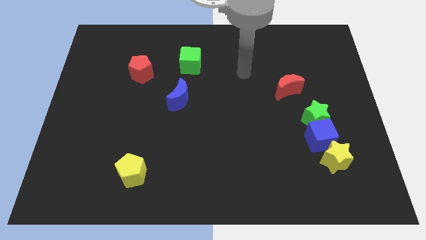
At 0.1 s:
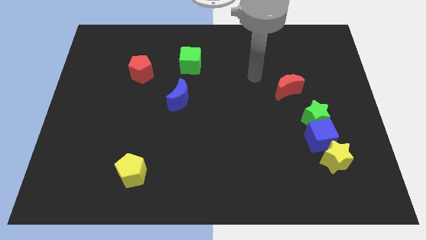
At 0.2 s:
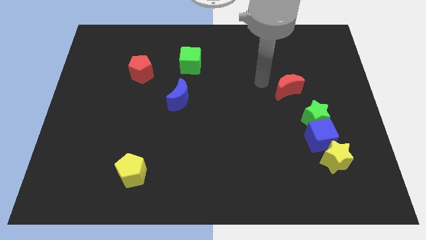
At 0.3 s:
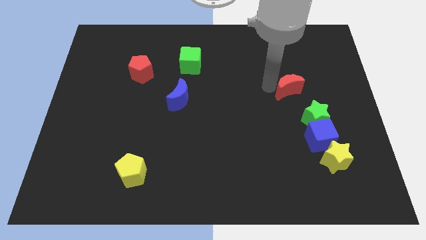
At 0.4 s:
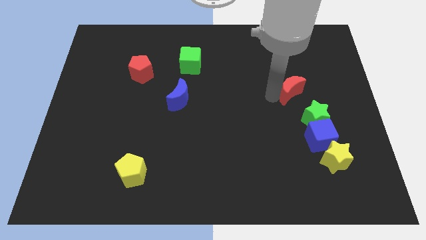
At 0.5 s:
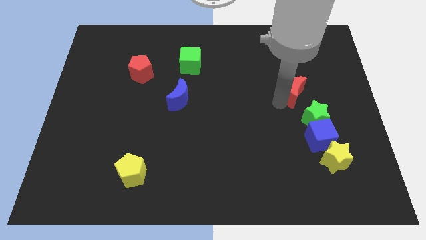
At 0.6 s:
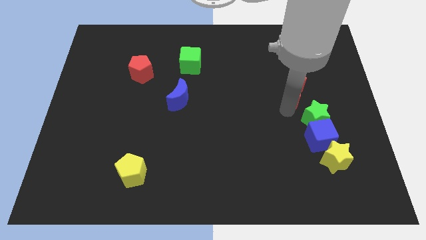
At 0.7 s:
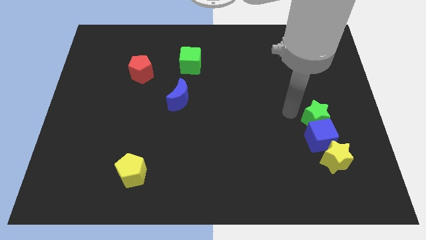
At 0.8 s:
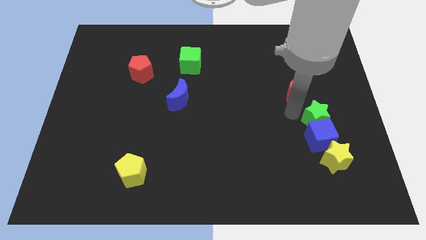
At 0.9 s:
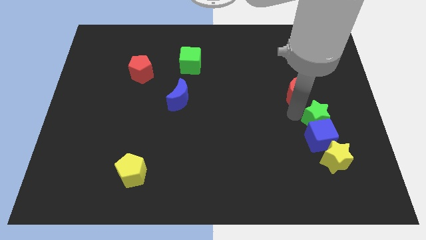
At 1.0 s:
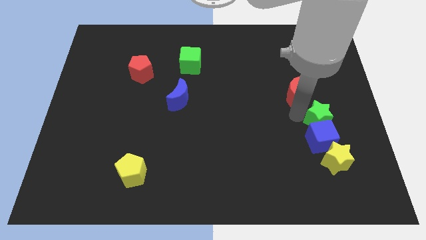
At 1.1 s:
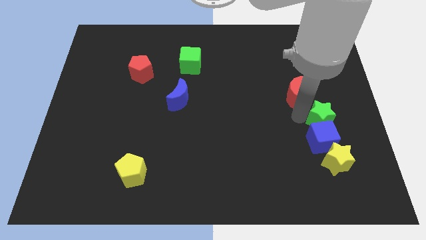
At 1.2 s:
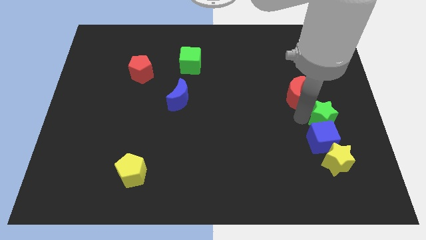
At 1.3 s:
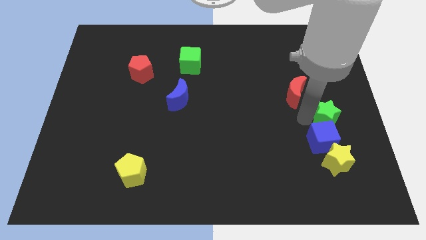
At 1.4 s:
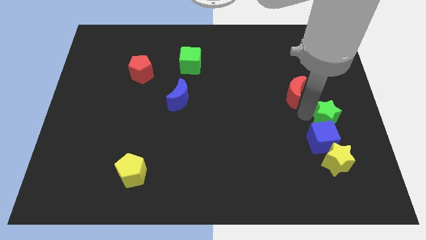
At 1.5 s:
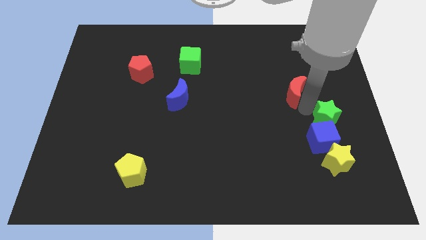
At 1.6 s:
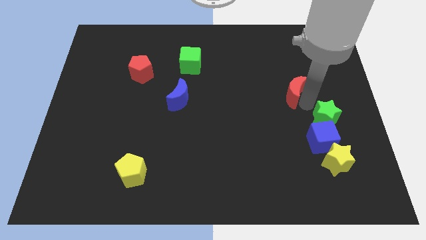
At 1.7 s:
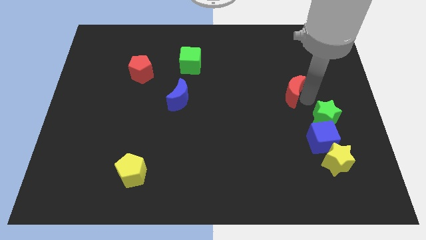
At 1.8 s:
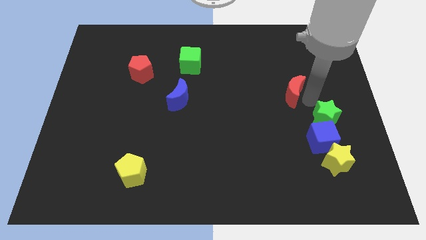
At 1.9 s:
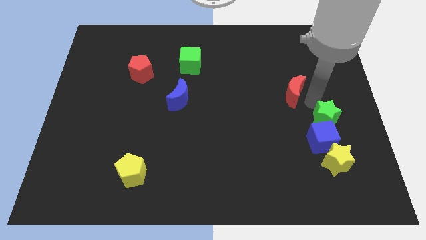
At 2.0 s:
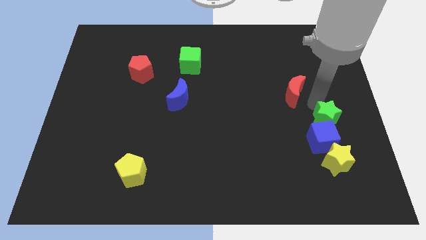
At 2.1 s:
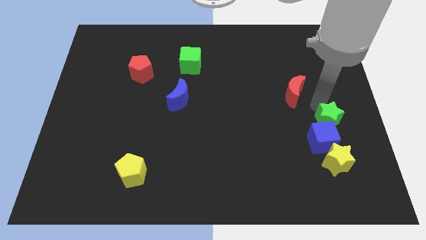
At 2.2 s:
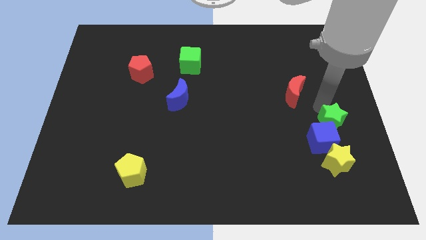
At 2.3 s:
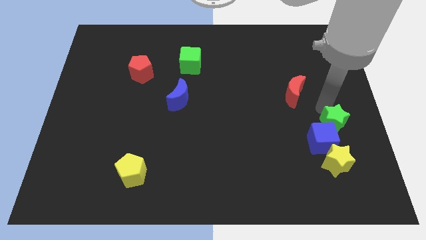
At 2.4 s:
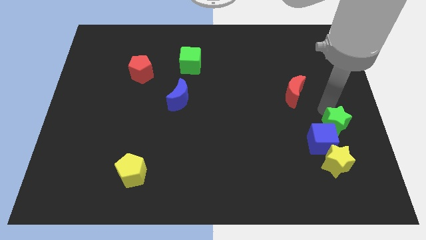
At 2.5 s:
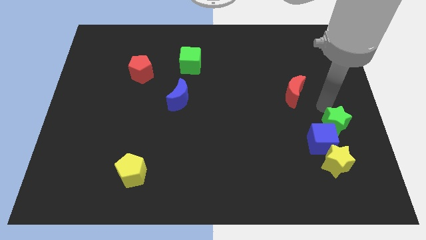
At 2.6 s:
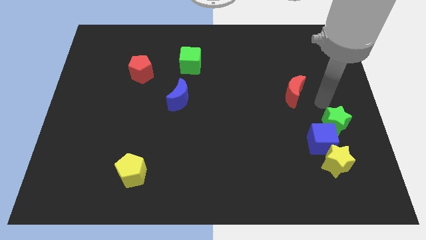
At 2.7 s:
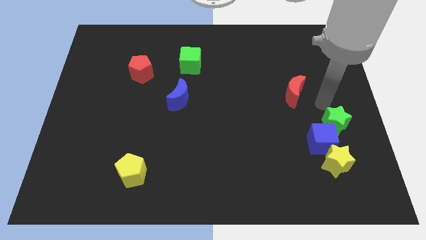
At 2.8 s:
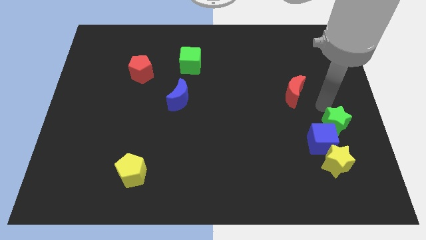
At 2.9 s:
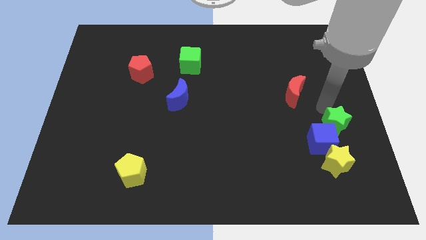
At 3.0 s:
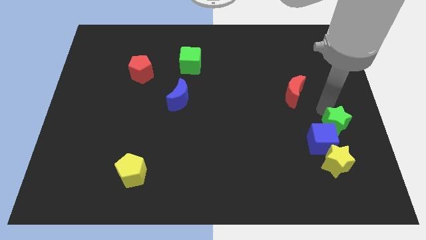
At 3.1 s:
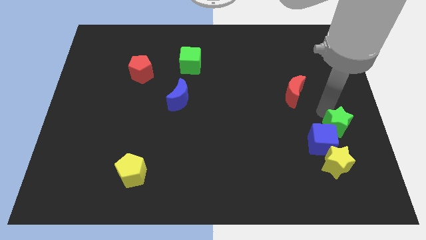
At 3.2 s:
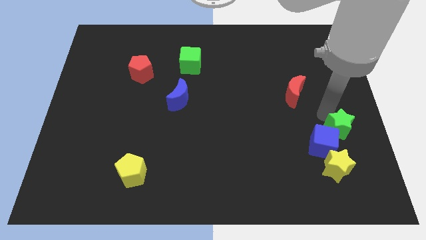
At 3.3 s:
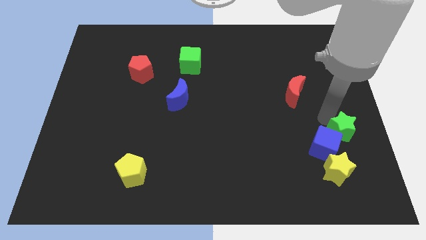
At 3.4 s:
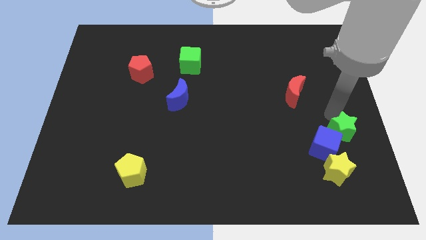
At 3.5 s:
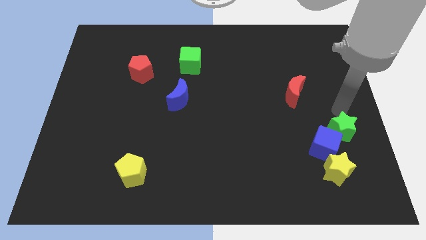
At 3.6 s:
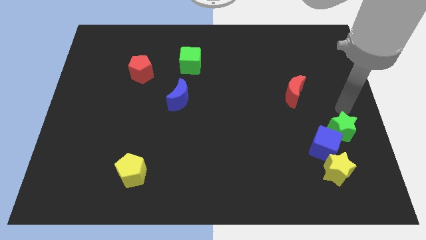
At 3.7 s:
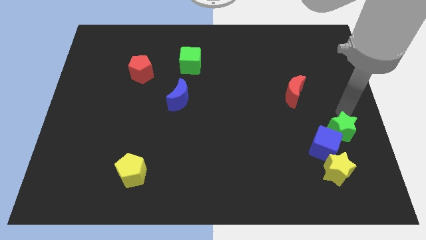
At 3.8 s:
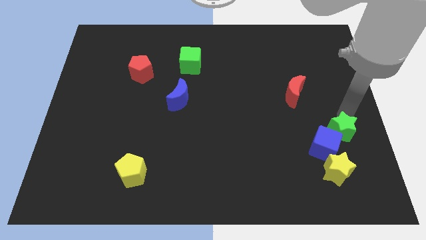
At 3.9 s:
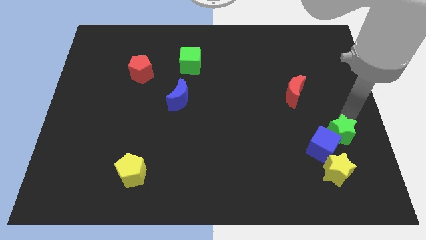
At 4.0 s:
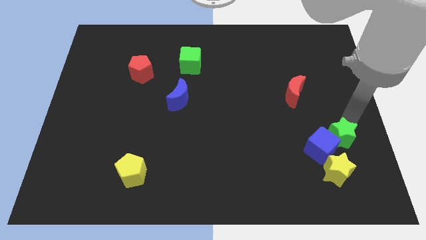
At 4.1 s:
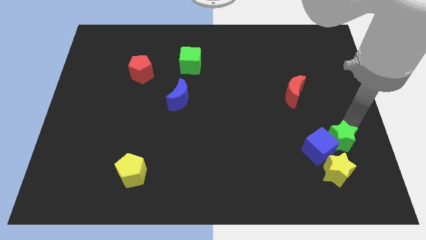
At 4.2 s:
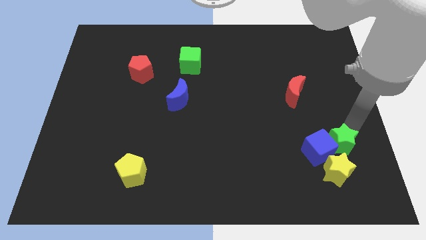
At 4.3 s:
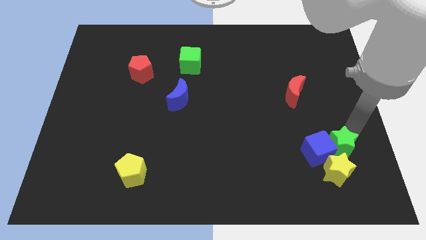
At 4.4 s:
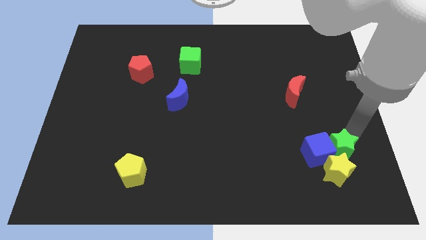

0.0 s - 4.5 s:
slide the green star close to the yellow star

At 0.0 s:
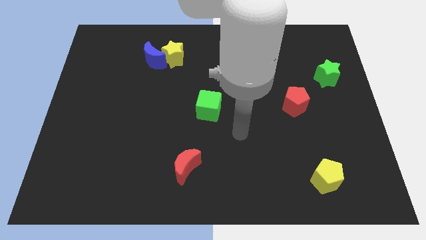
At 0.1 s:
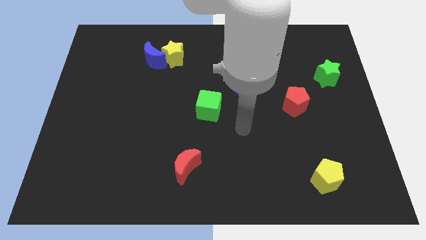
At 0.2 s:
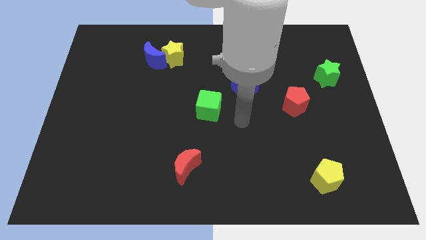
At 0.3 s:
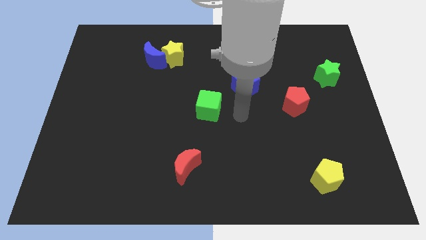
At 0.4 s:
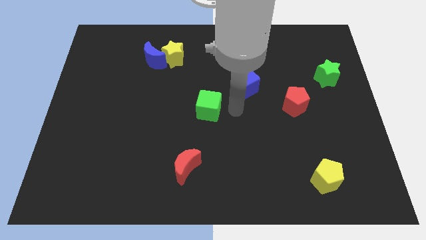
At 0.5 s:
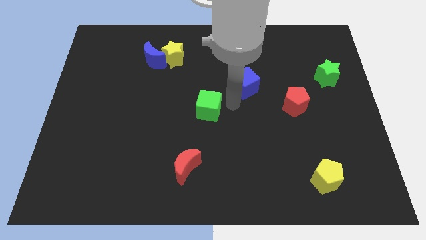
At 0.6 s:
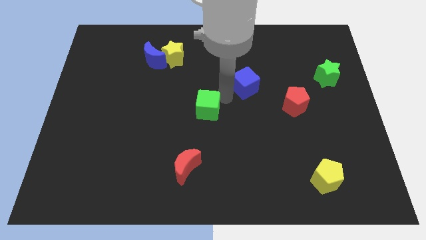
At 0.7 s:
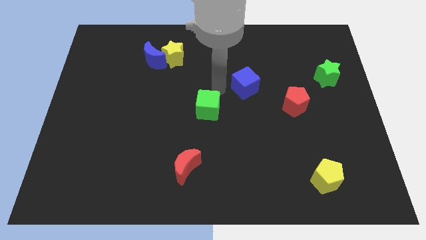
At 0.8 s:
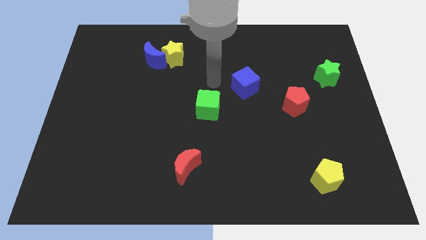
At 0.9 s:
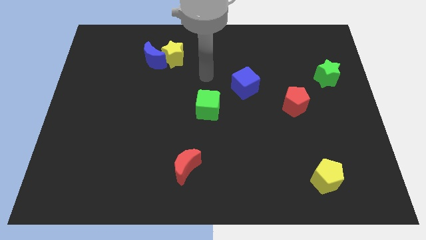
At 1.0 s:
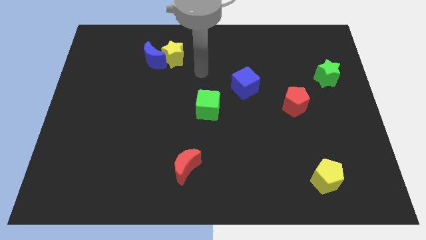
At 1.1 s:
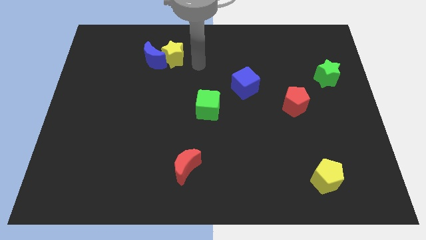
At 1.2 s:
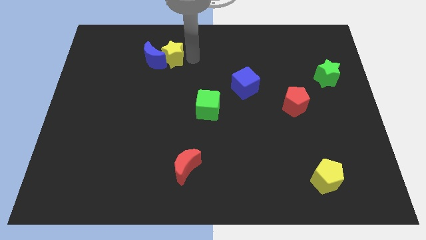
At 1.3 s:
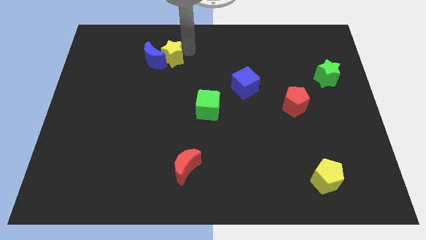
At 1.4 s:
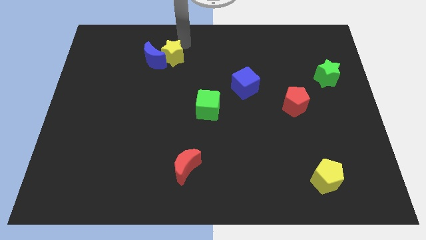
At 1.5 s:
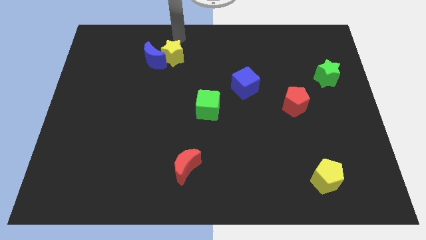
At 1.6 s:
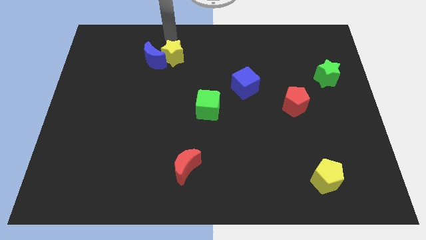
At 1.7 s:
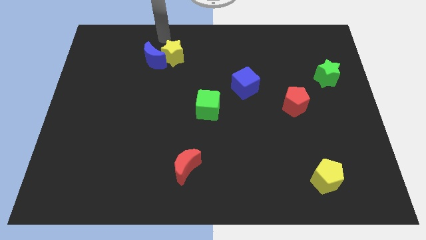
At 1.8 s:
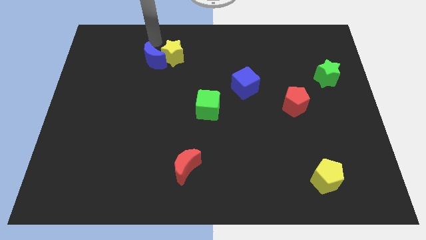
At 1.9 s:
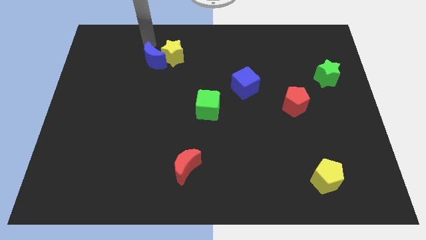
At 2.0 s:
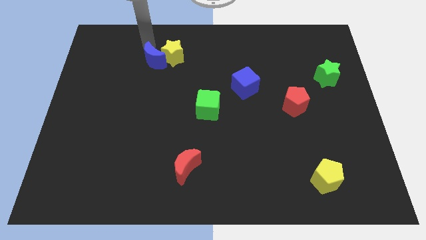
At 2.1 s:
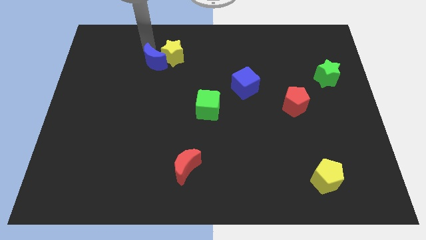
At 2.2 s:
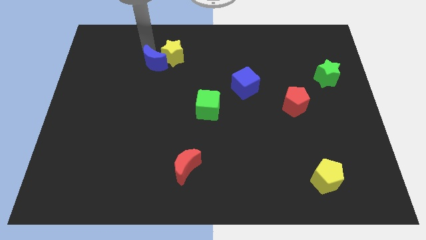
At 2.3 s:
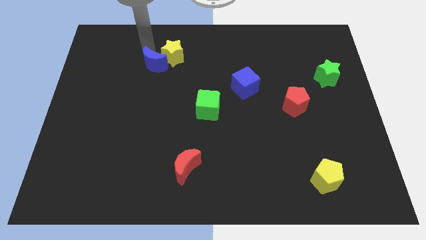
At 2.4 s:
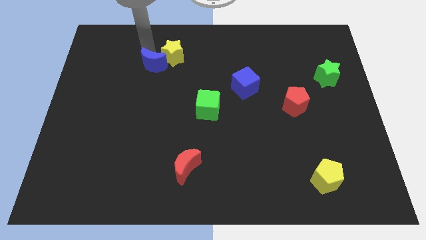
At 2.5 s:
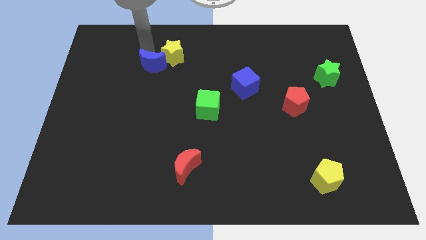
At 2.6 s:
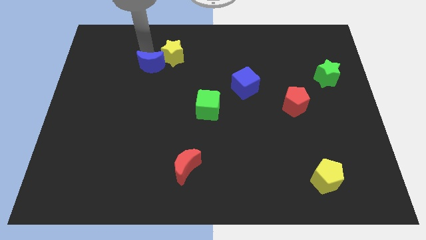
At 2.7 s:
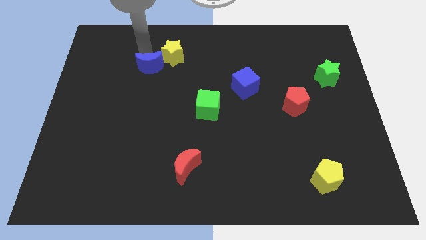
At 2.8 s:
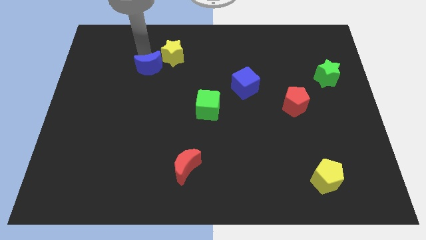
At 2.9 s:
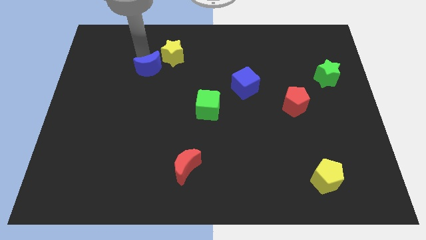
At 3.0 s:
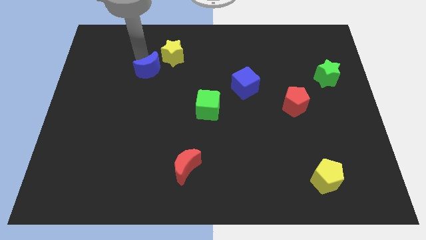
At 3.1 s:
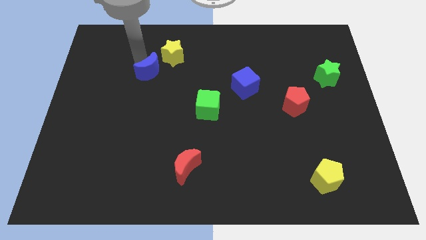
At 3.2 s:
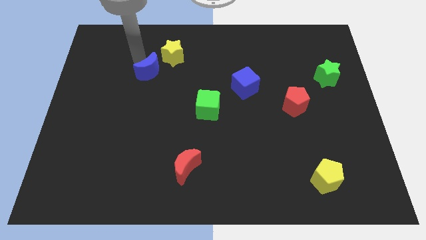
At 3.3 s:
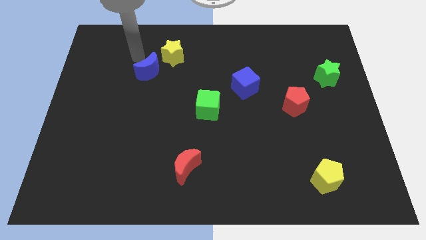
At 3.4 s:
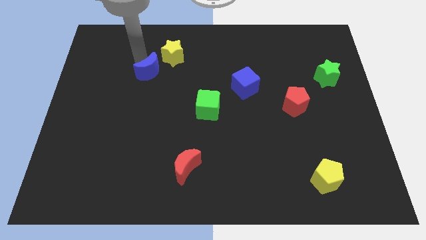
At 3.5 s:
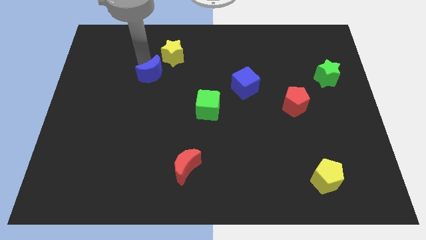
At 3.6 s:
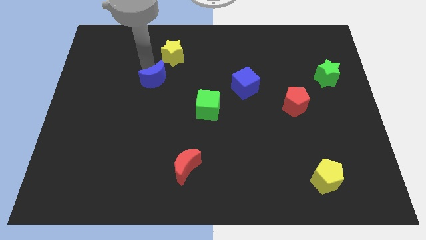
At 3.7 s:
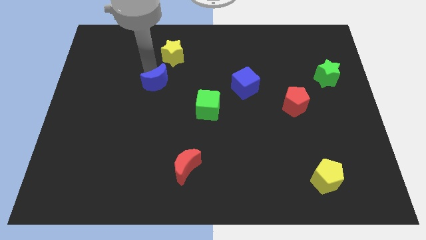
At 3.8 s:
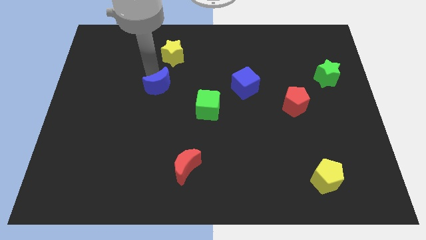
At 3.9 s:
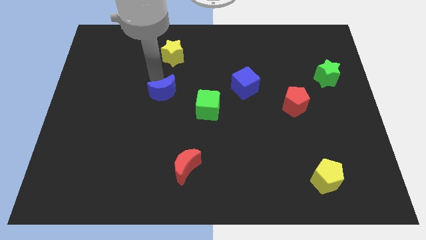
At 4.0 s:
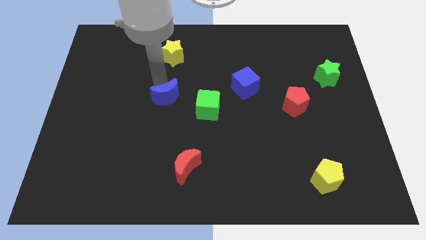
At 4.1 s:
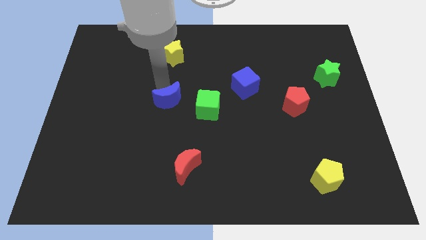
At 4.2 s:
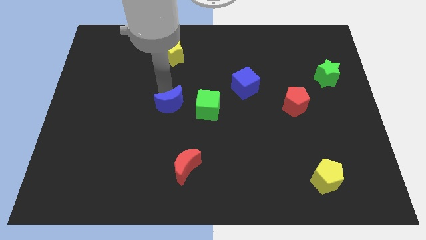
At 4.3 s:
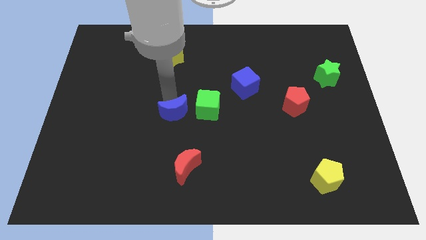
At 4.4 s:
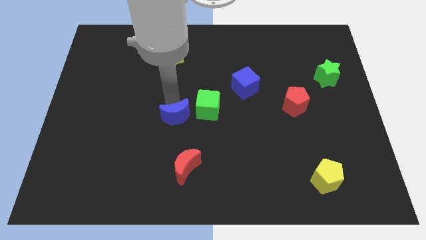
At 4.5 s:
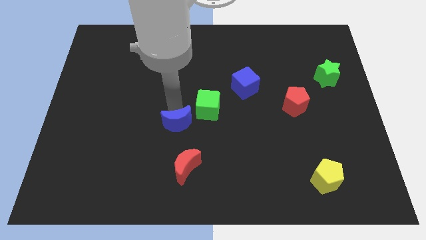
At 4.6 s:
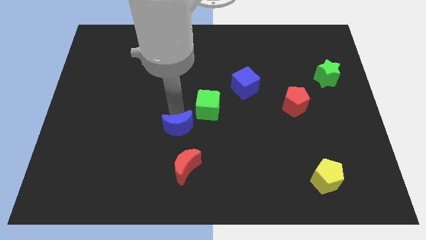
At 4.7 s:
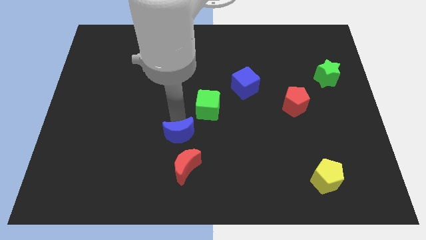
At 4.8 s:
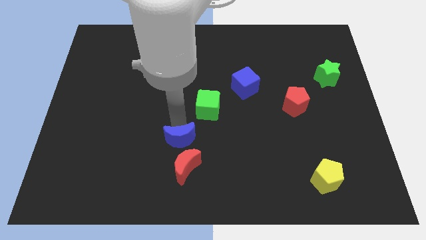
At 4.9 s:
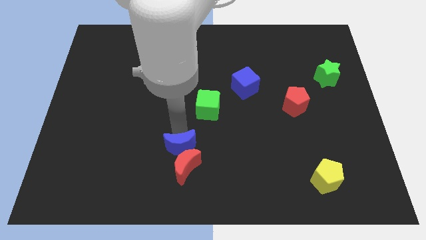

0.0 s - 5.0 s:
push the blue moon to the red moon
